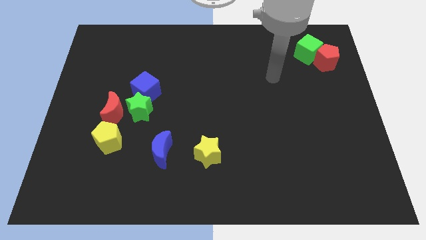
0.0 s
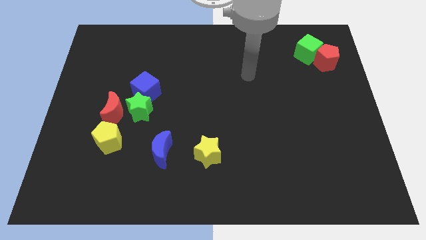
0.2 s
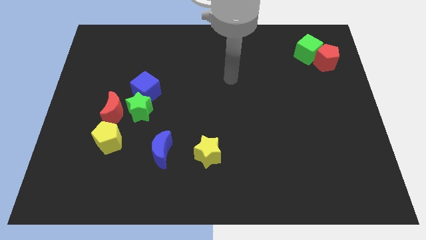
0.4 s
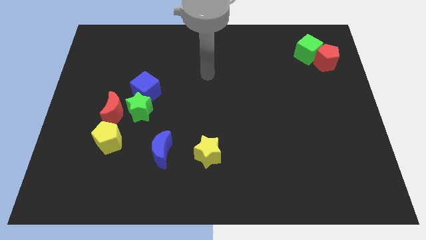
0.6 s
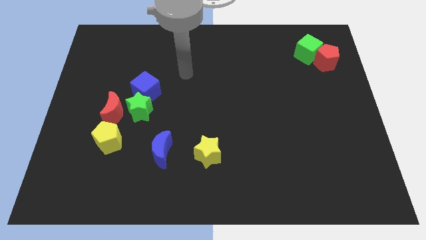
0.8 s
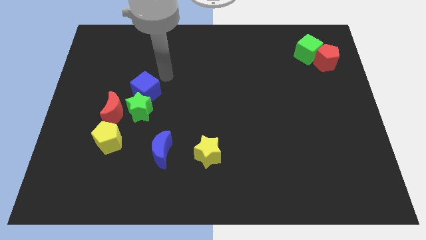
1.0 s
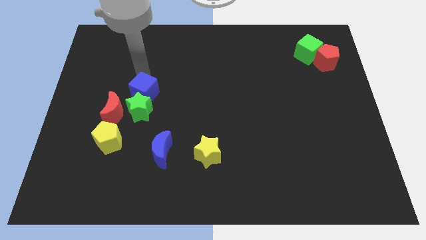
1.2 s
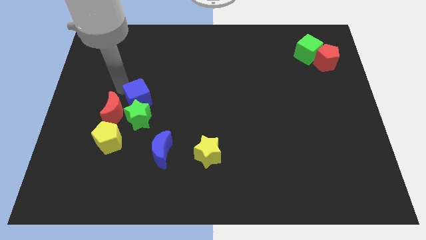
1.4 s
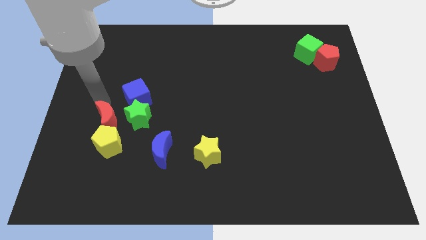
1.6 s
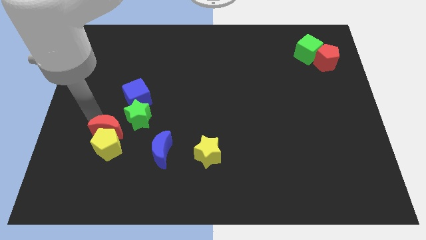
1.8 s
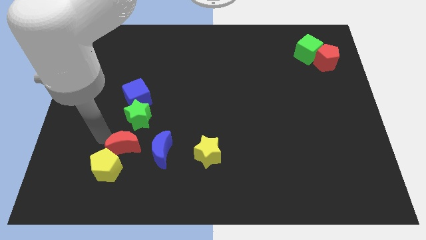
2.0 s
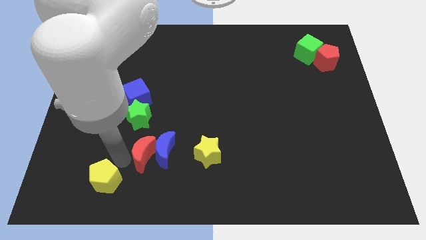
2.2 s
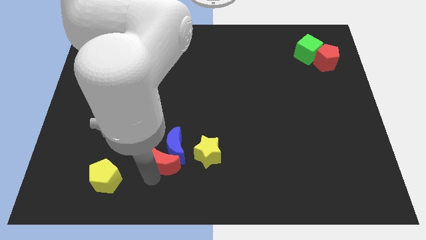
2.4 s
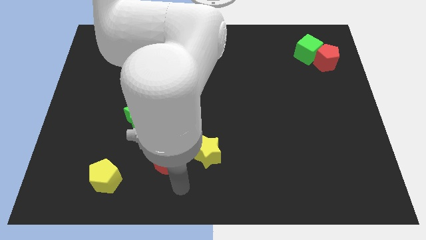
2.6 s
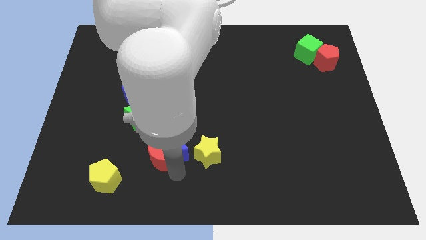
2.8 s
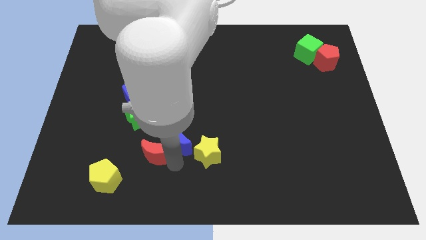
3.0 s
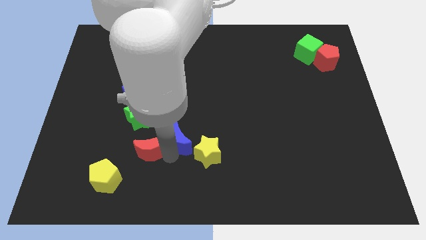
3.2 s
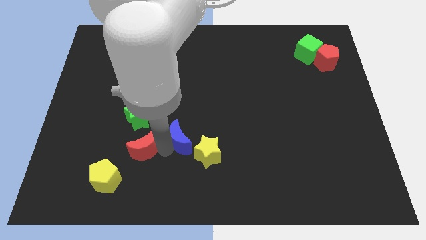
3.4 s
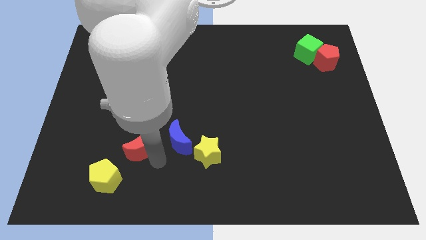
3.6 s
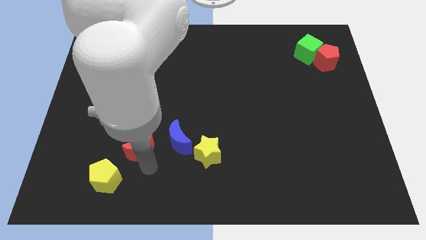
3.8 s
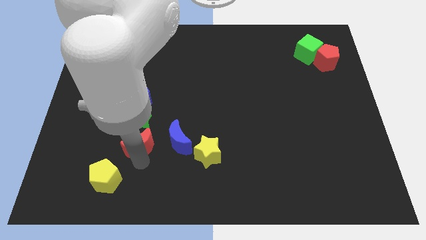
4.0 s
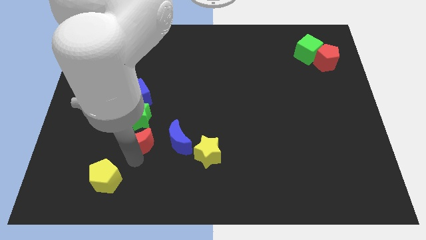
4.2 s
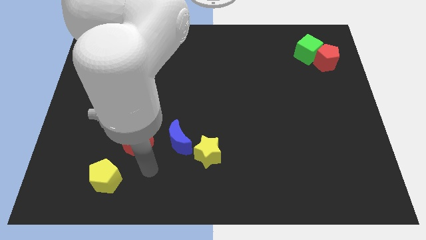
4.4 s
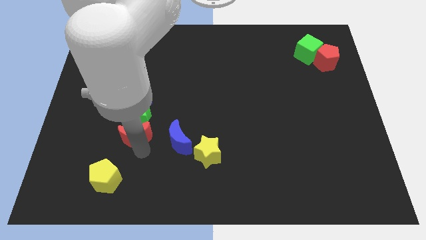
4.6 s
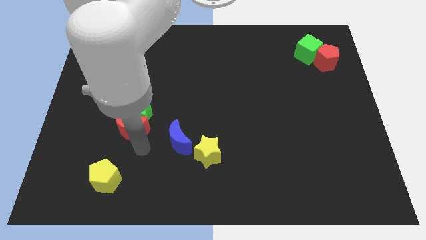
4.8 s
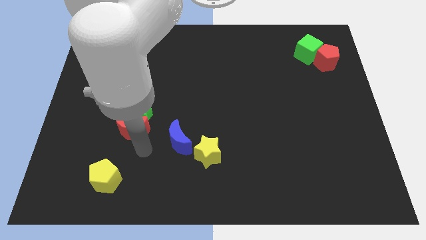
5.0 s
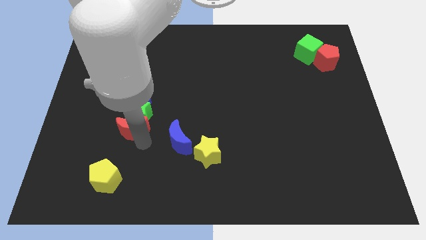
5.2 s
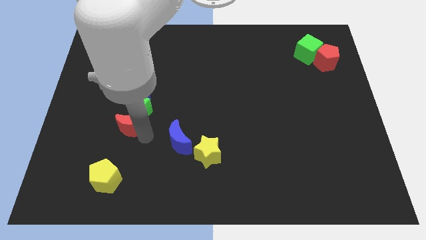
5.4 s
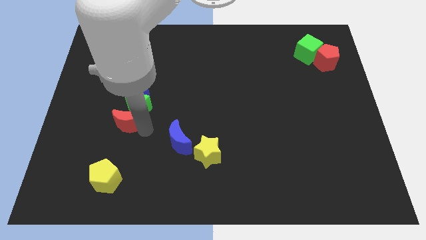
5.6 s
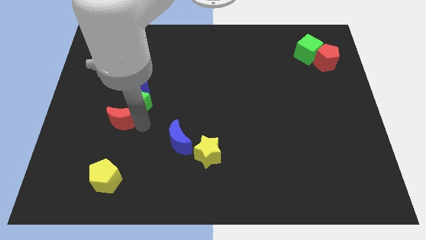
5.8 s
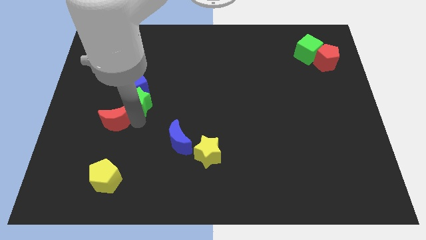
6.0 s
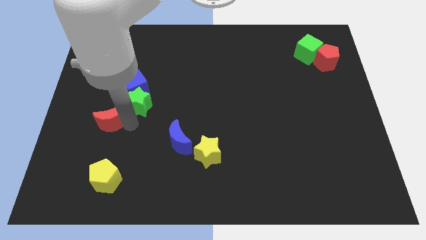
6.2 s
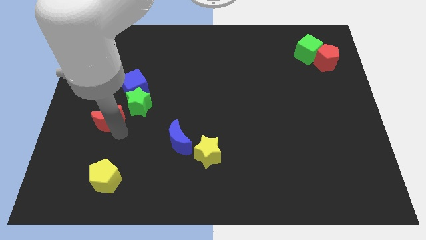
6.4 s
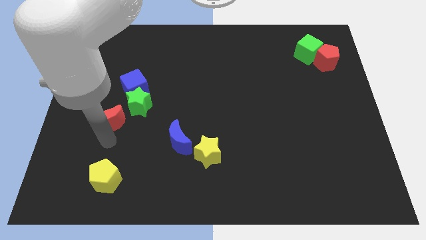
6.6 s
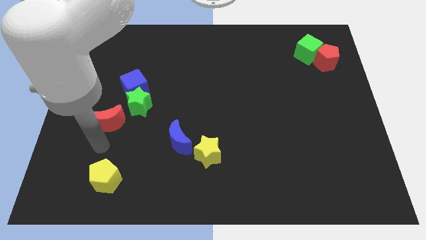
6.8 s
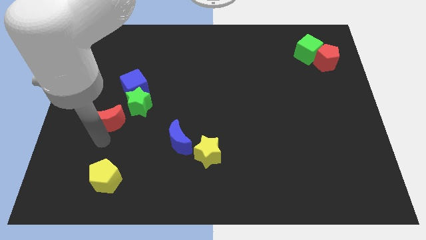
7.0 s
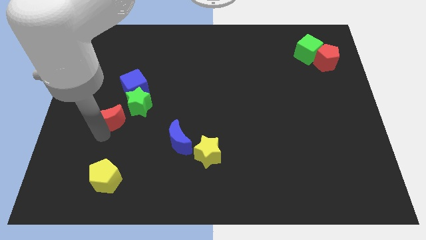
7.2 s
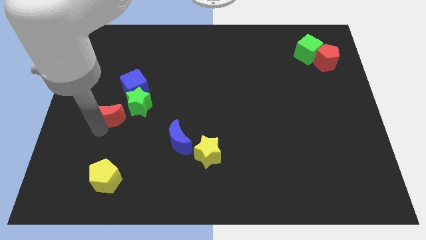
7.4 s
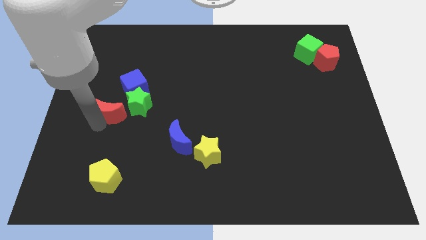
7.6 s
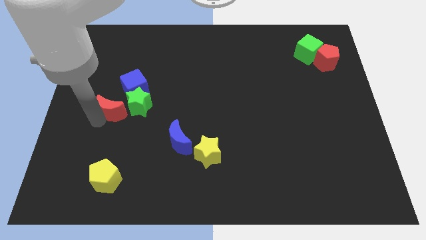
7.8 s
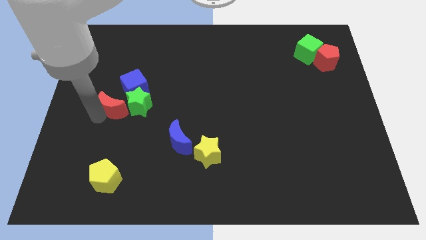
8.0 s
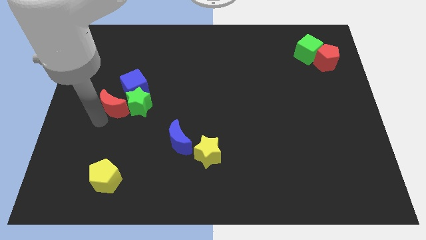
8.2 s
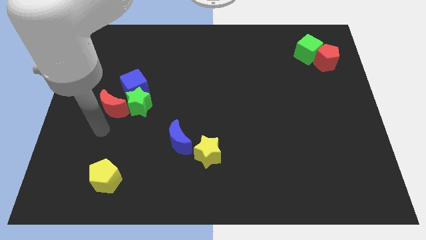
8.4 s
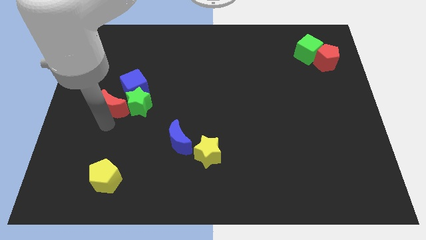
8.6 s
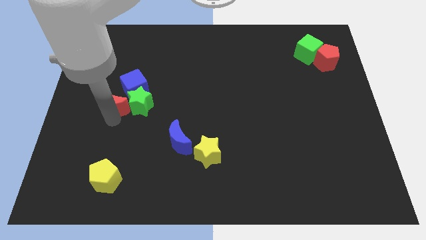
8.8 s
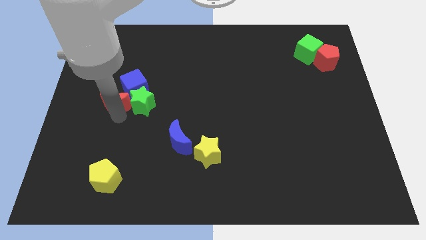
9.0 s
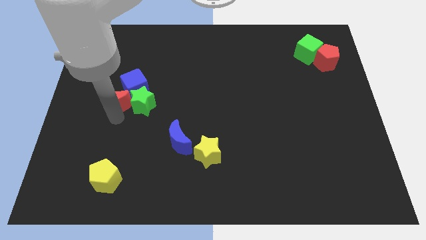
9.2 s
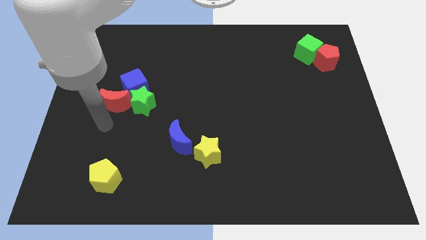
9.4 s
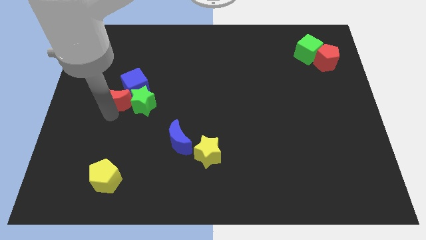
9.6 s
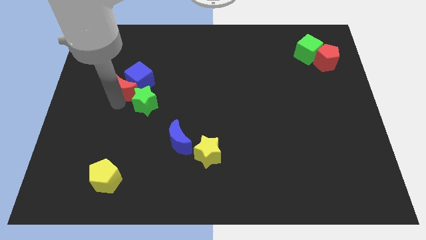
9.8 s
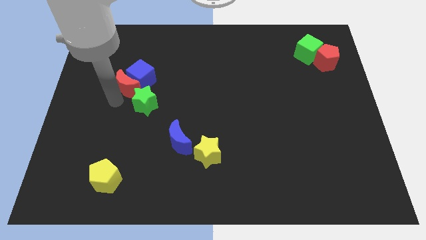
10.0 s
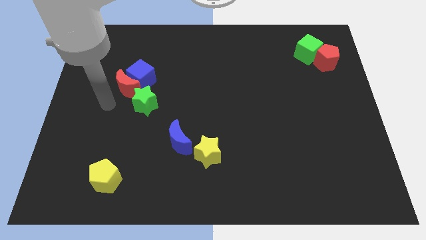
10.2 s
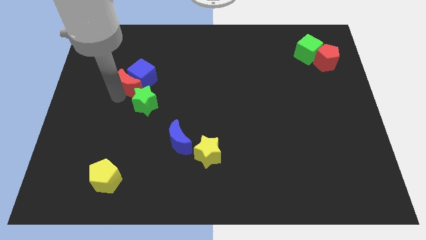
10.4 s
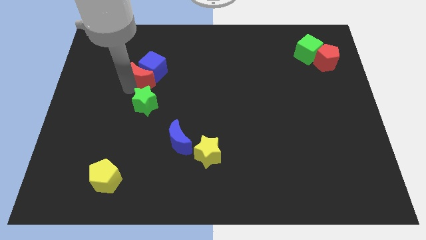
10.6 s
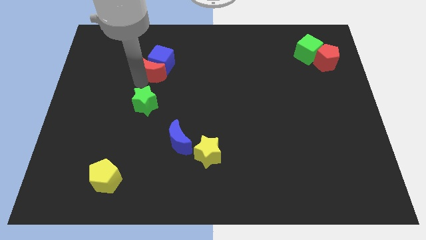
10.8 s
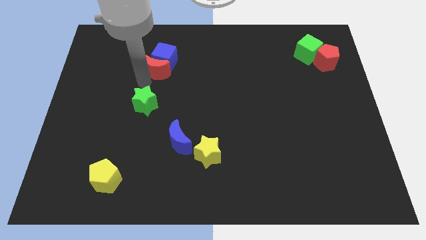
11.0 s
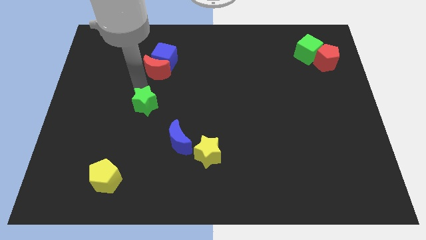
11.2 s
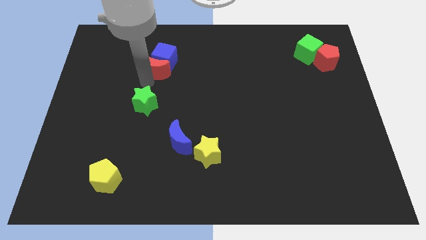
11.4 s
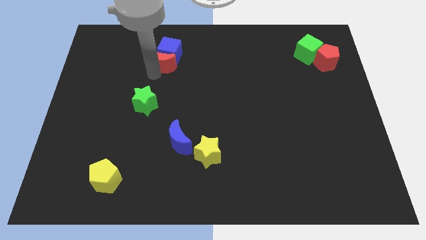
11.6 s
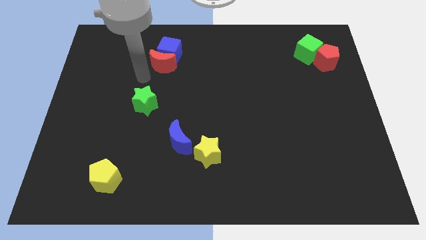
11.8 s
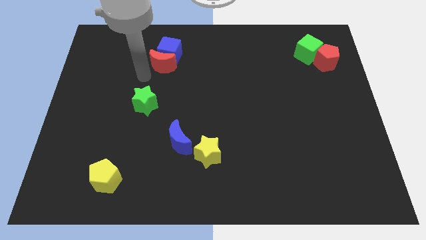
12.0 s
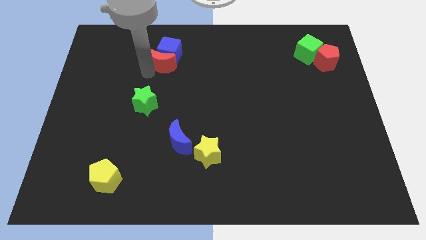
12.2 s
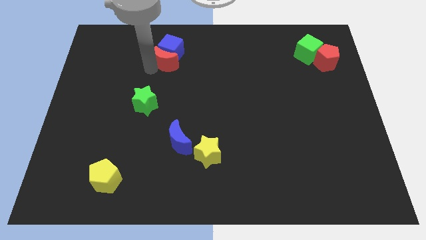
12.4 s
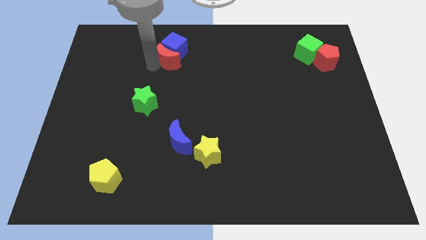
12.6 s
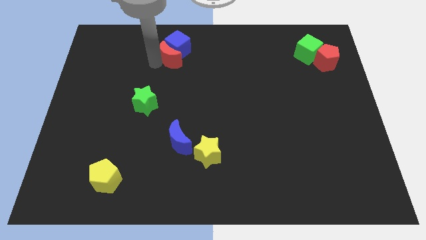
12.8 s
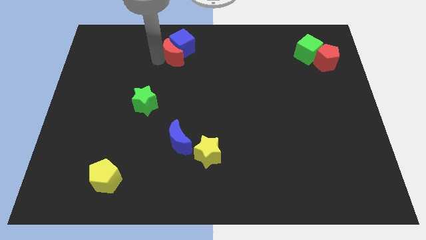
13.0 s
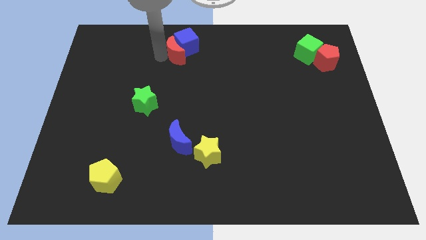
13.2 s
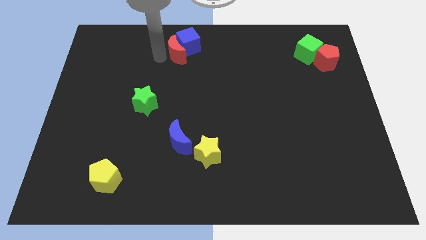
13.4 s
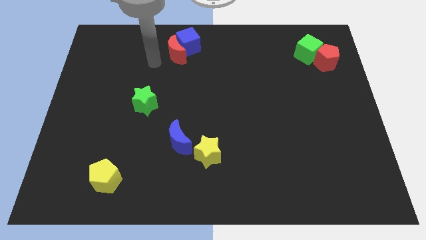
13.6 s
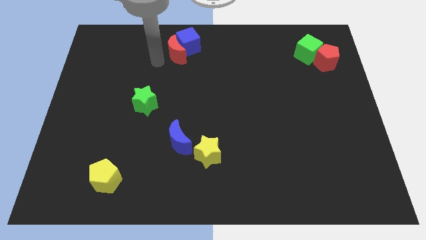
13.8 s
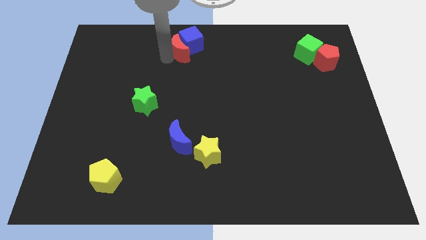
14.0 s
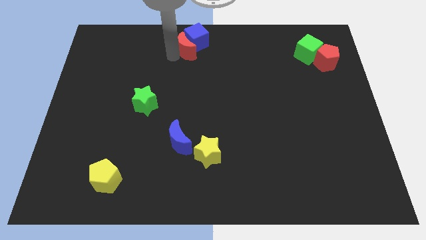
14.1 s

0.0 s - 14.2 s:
slide the red moon to the top
